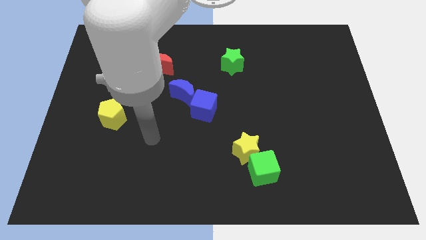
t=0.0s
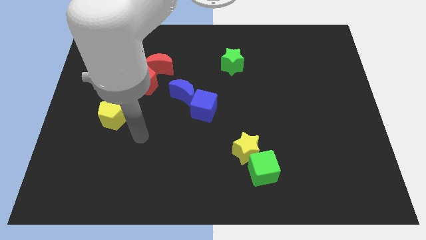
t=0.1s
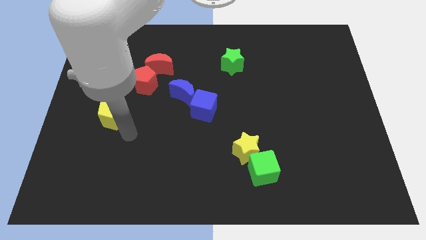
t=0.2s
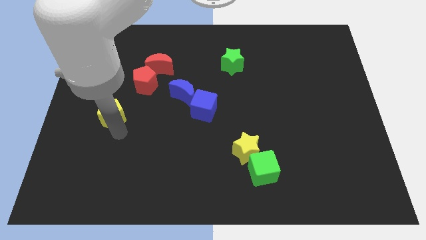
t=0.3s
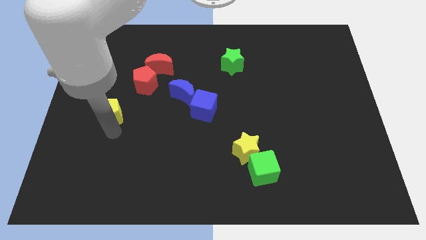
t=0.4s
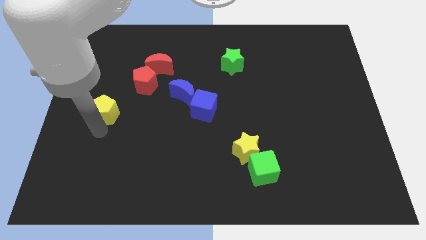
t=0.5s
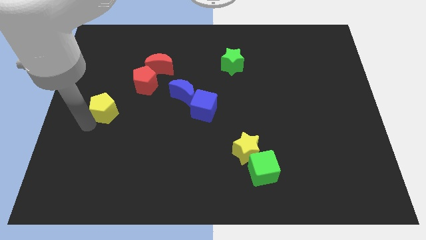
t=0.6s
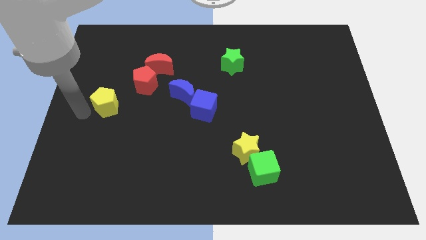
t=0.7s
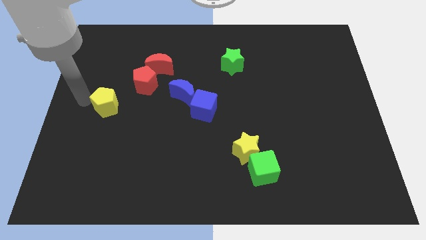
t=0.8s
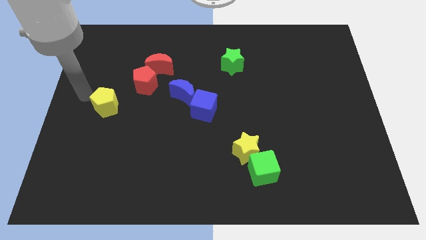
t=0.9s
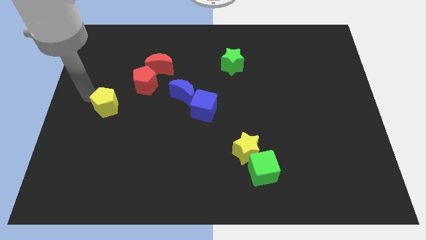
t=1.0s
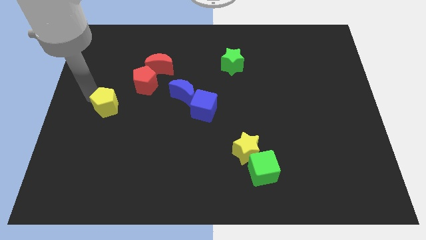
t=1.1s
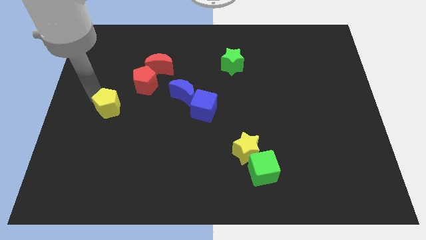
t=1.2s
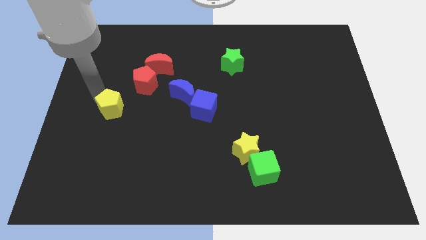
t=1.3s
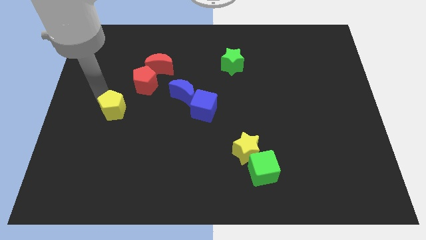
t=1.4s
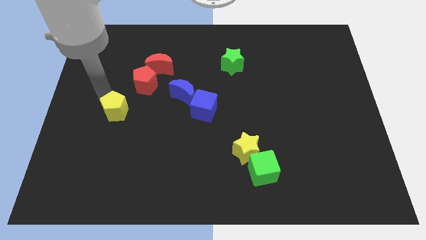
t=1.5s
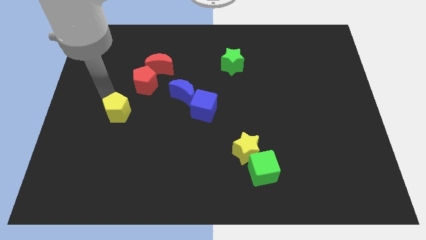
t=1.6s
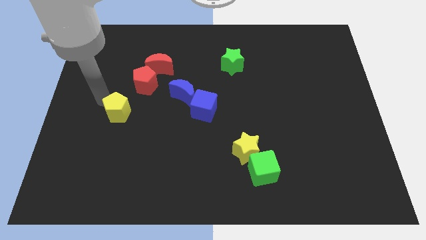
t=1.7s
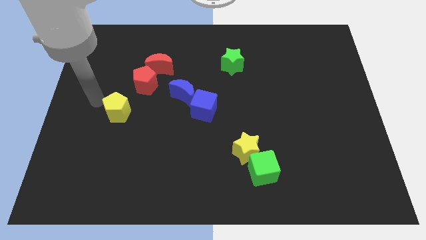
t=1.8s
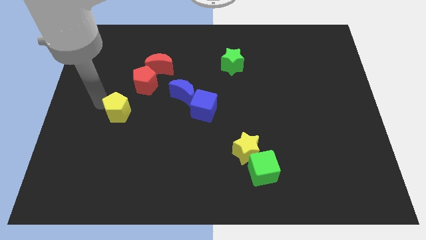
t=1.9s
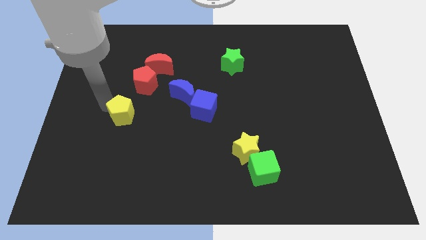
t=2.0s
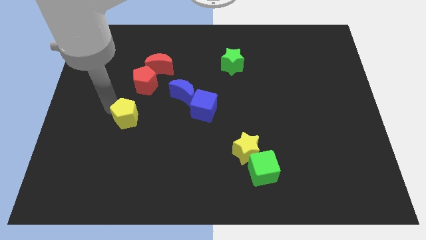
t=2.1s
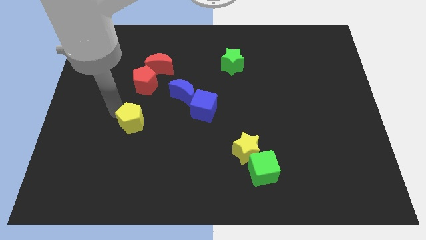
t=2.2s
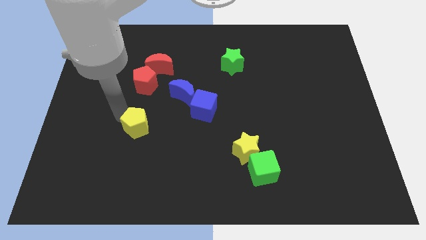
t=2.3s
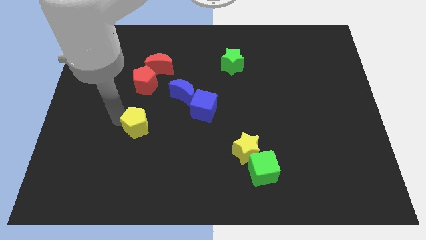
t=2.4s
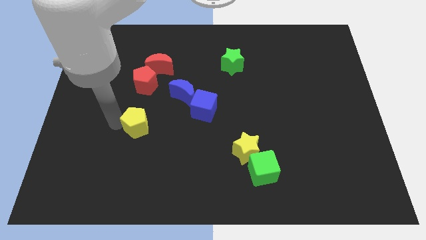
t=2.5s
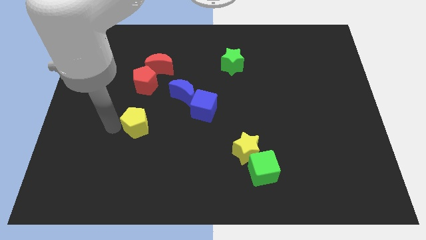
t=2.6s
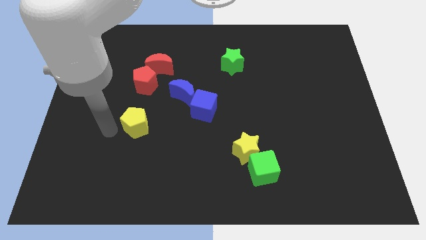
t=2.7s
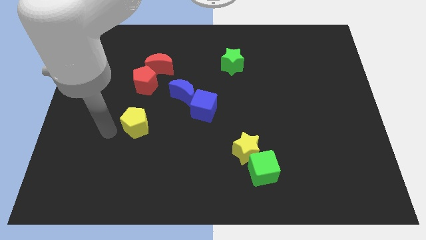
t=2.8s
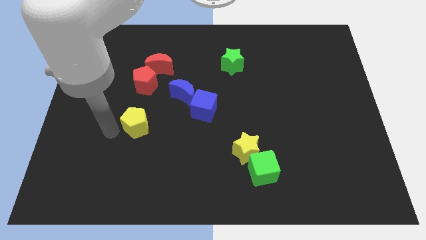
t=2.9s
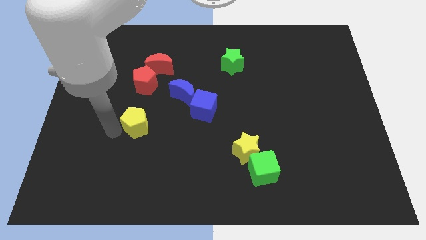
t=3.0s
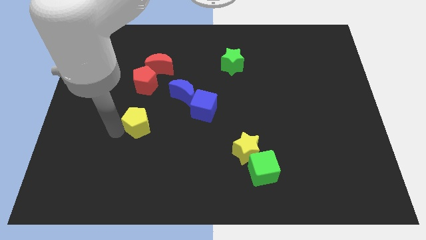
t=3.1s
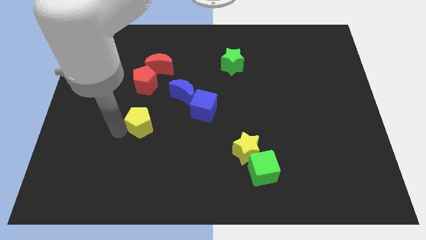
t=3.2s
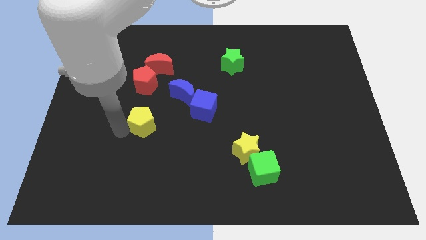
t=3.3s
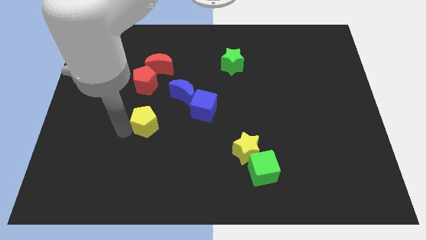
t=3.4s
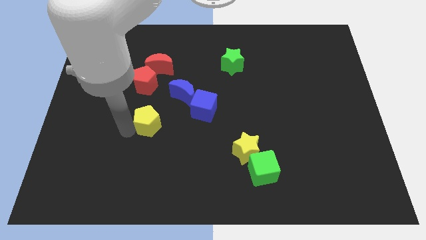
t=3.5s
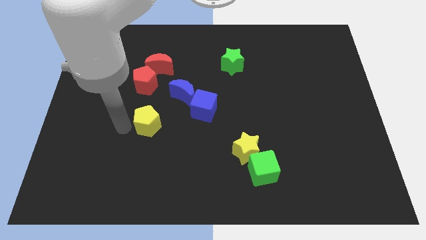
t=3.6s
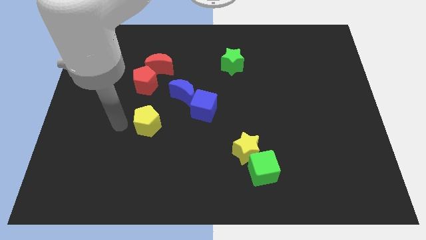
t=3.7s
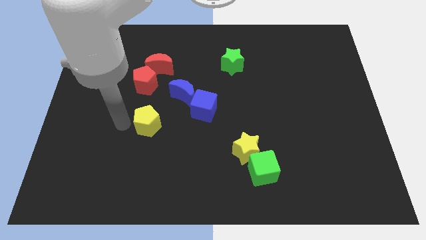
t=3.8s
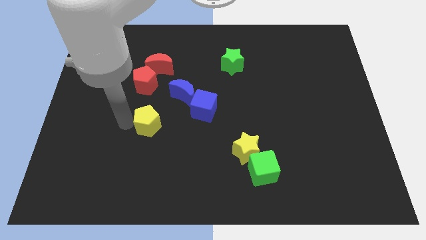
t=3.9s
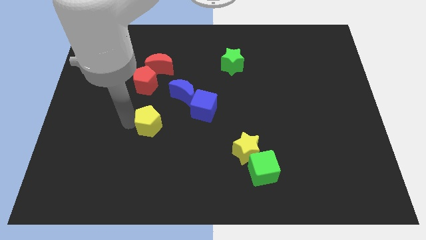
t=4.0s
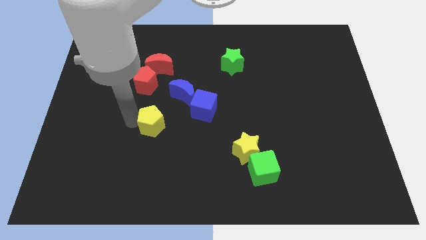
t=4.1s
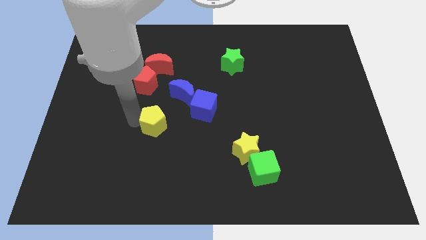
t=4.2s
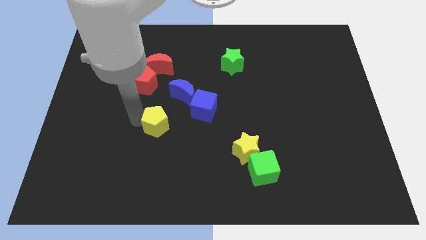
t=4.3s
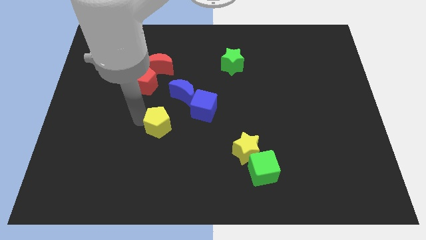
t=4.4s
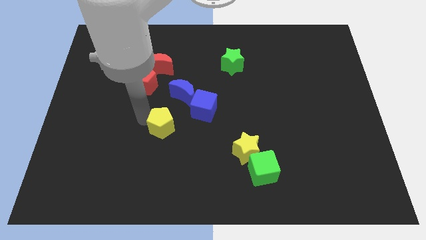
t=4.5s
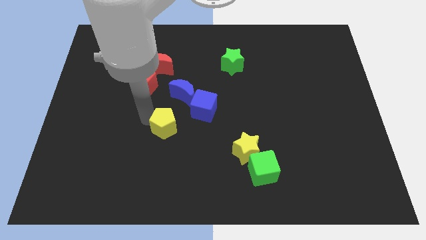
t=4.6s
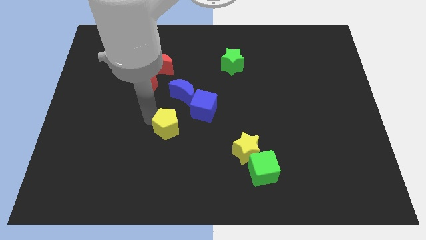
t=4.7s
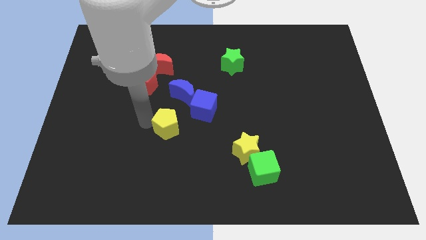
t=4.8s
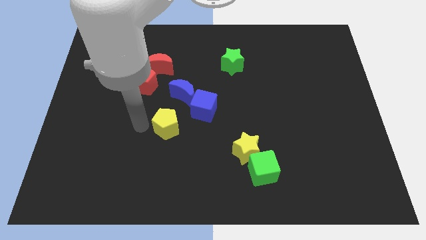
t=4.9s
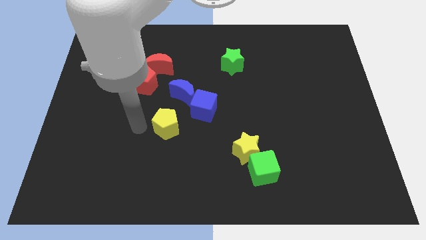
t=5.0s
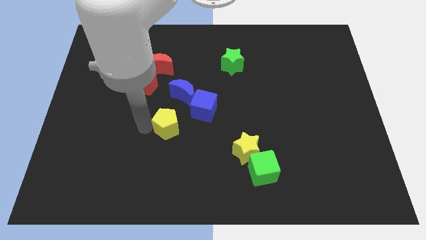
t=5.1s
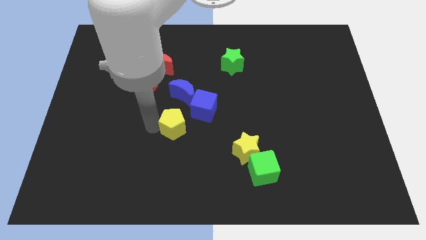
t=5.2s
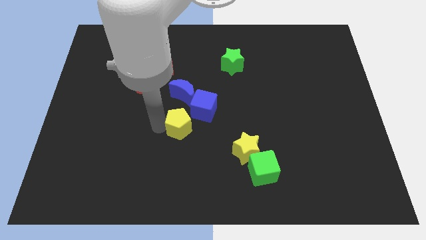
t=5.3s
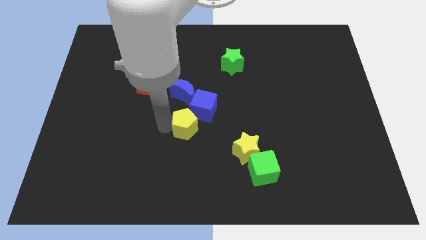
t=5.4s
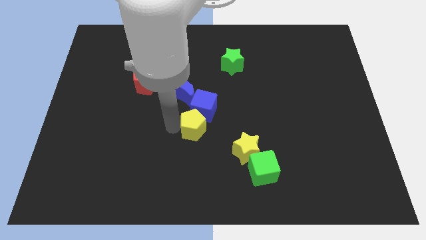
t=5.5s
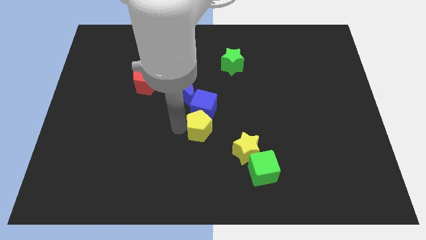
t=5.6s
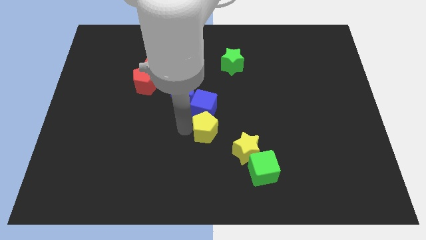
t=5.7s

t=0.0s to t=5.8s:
move the yellow pentagon right

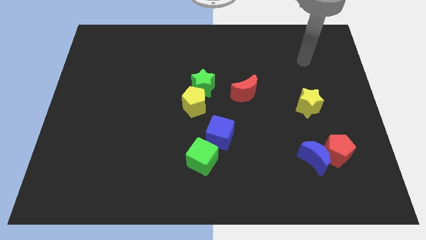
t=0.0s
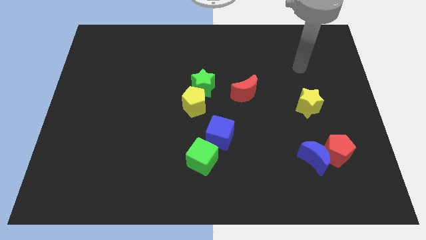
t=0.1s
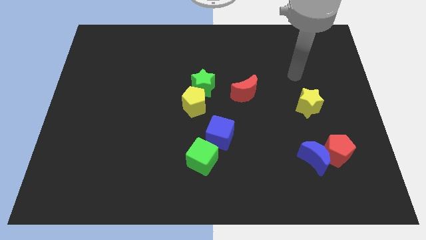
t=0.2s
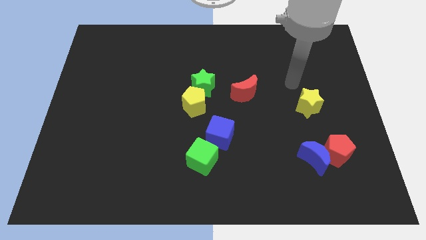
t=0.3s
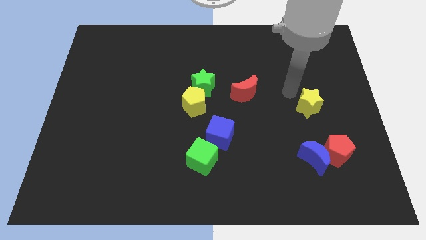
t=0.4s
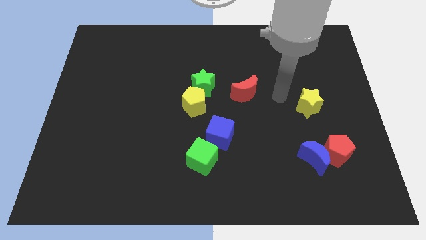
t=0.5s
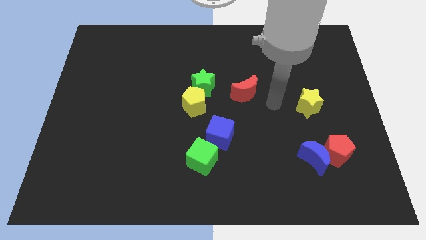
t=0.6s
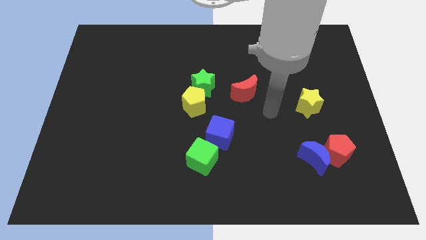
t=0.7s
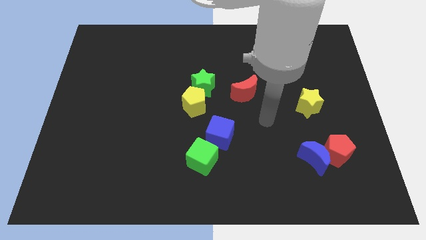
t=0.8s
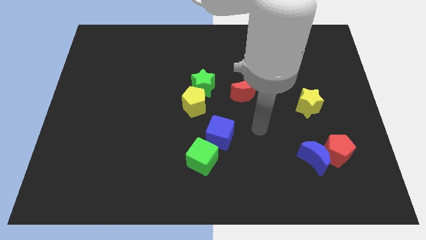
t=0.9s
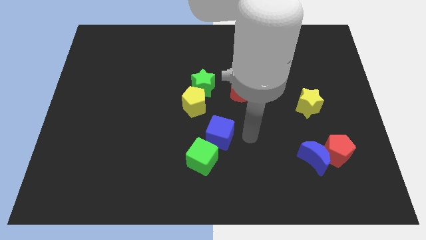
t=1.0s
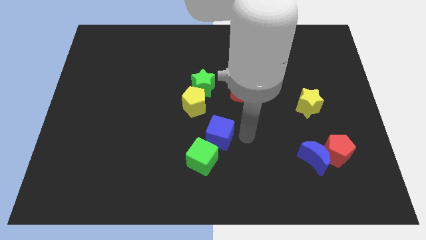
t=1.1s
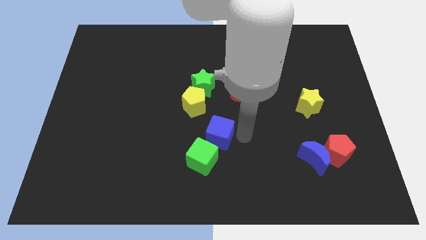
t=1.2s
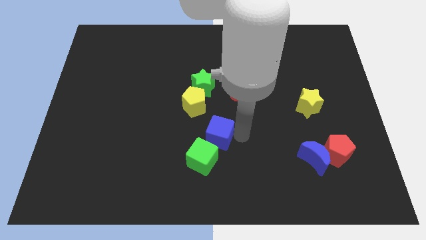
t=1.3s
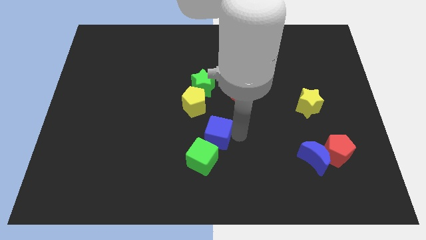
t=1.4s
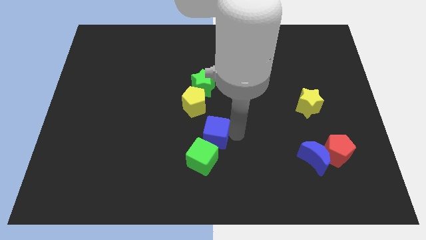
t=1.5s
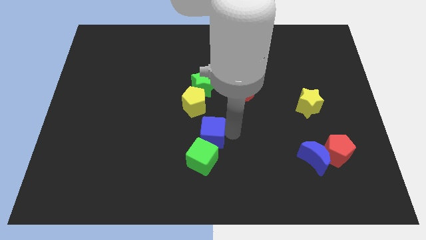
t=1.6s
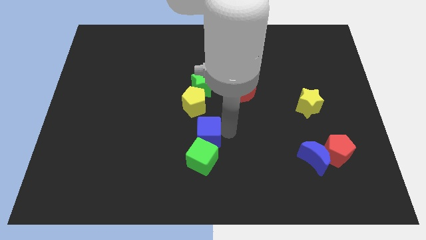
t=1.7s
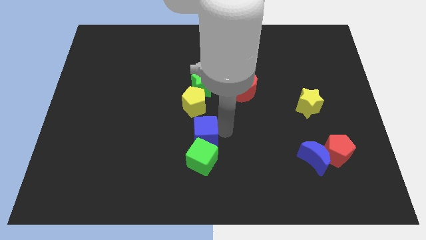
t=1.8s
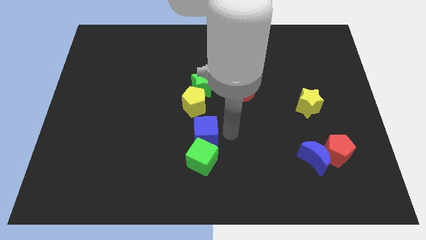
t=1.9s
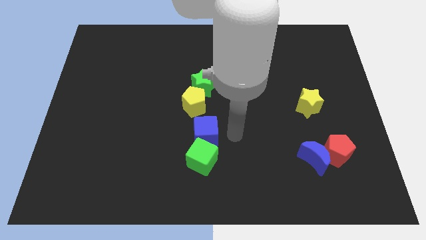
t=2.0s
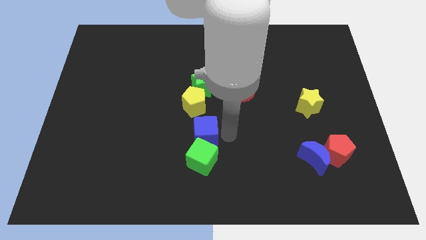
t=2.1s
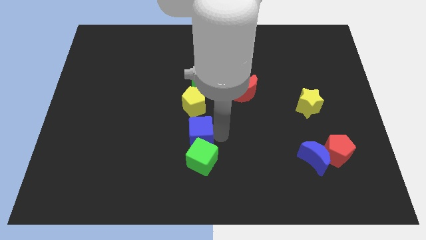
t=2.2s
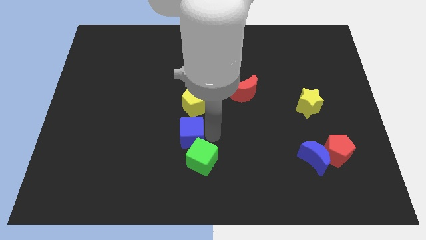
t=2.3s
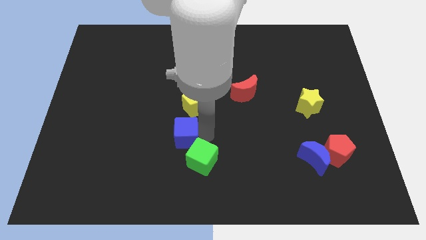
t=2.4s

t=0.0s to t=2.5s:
slightly slide the blue cube to the left
